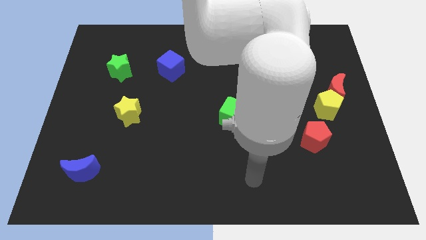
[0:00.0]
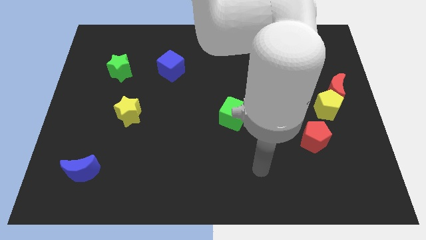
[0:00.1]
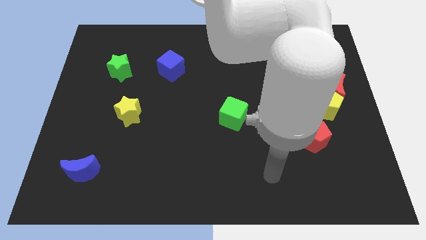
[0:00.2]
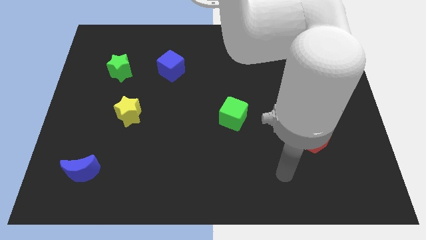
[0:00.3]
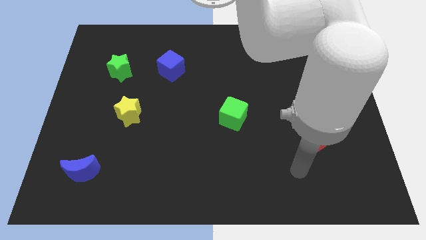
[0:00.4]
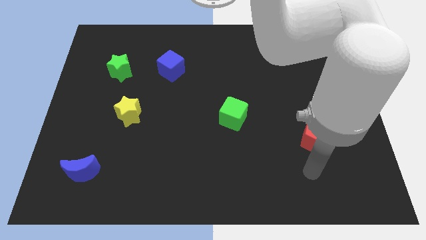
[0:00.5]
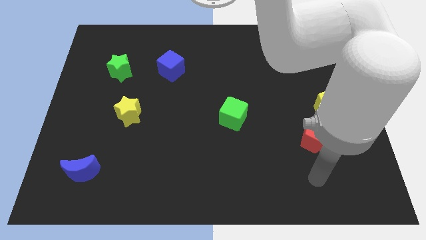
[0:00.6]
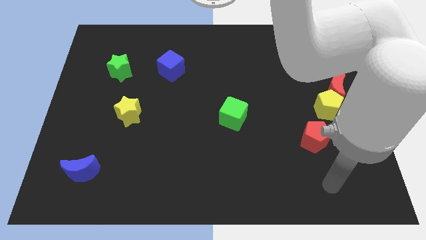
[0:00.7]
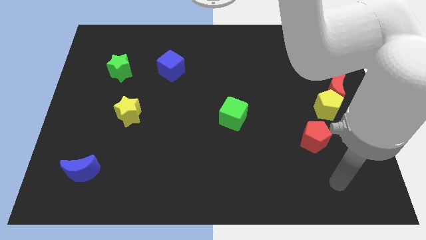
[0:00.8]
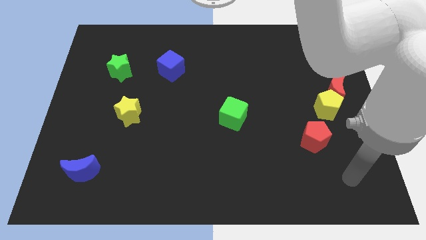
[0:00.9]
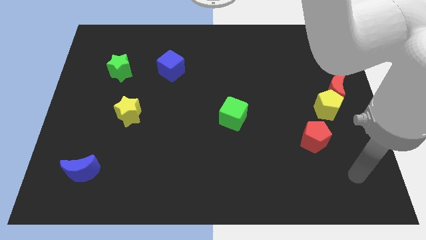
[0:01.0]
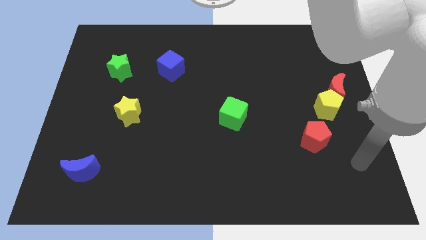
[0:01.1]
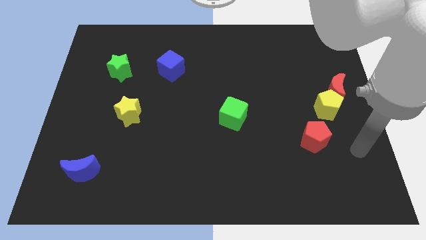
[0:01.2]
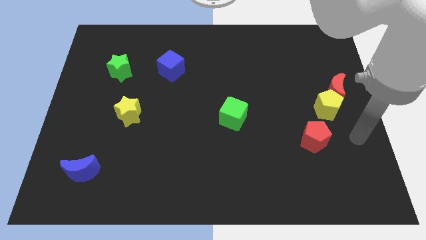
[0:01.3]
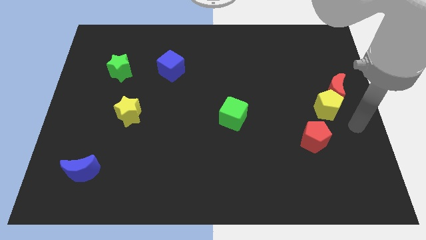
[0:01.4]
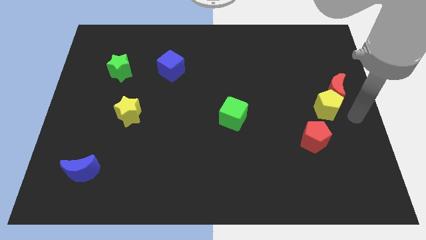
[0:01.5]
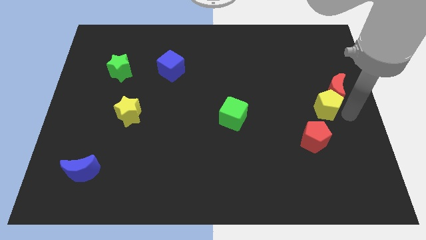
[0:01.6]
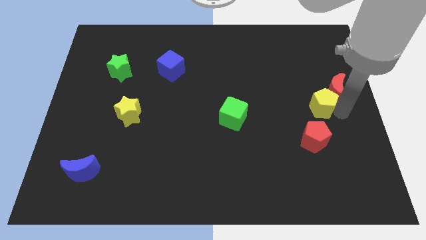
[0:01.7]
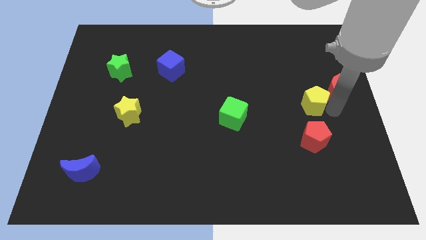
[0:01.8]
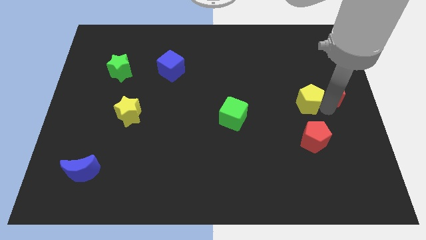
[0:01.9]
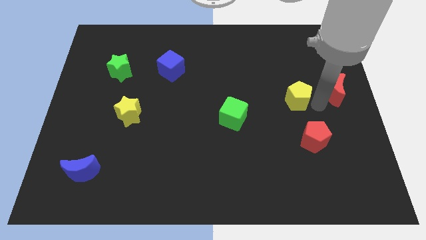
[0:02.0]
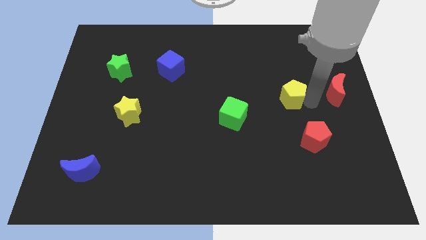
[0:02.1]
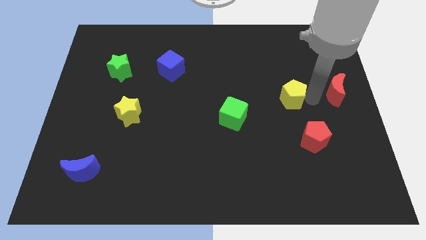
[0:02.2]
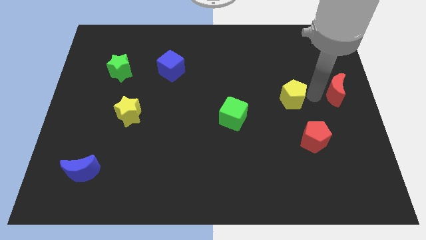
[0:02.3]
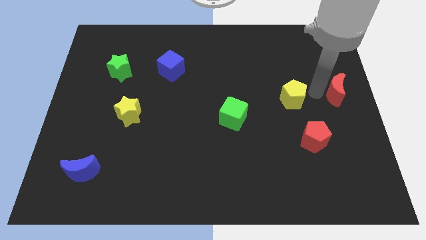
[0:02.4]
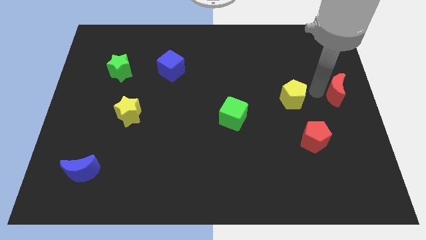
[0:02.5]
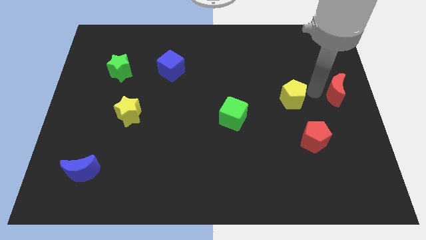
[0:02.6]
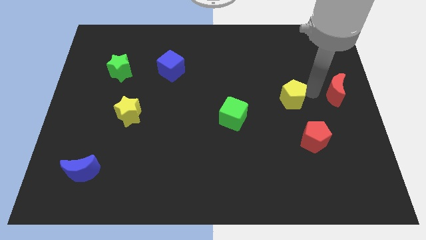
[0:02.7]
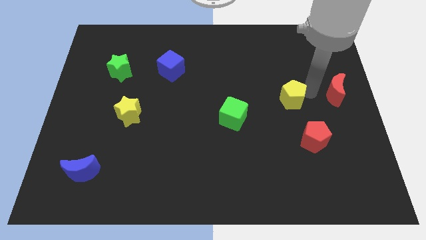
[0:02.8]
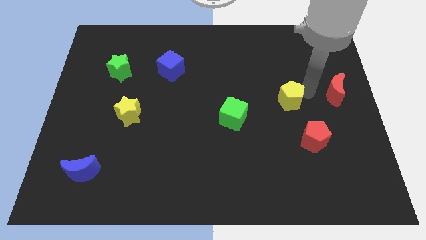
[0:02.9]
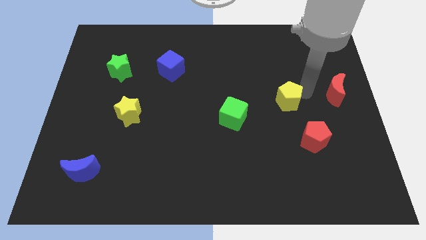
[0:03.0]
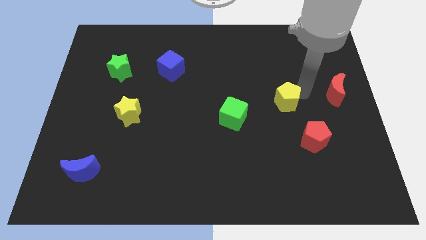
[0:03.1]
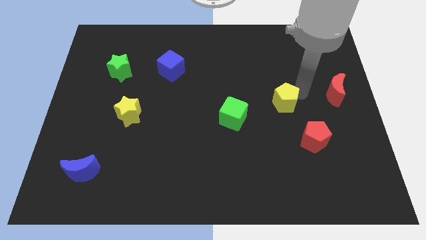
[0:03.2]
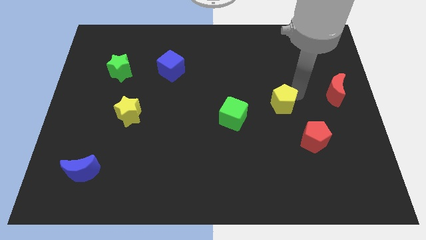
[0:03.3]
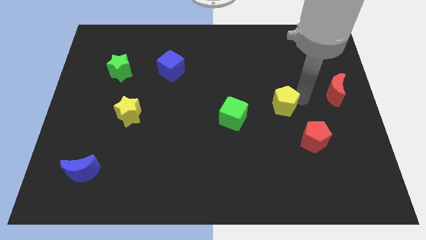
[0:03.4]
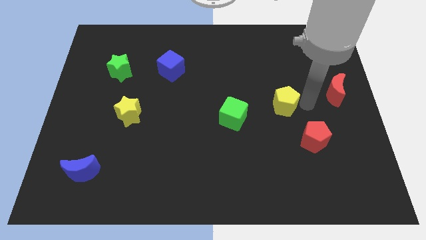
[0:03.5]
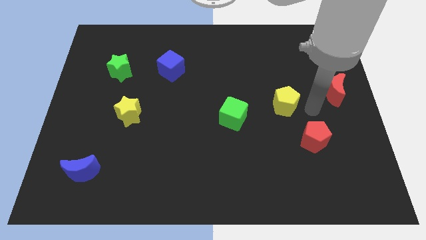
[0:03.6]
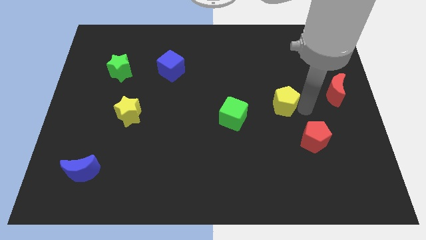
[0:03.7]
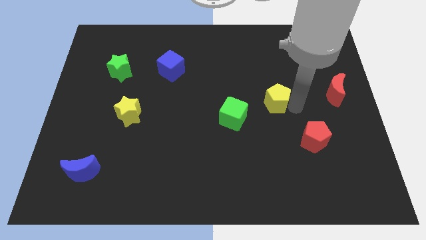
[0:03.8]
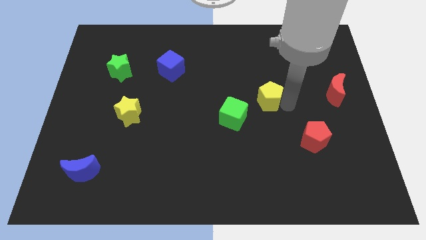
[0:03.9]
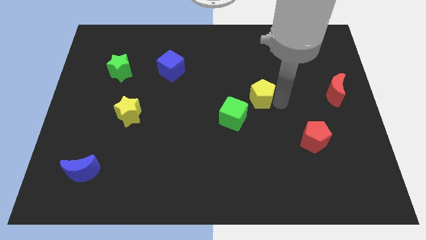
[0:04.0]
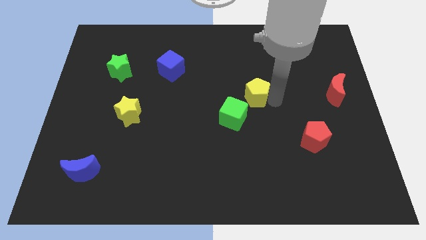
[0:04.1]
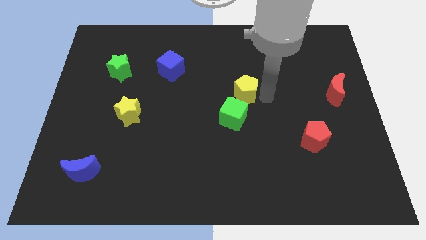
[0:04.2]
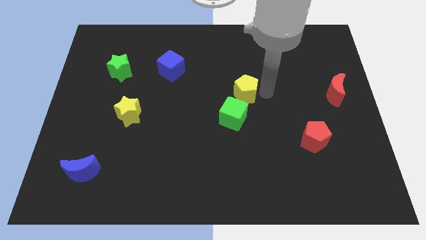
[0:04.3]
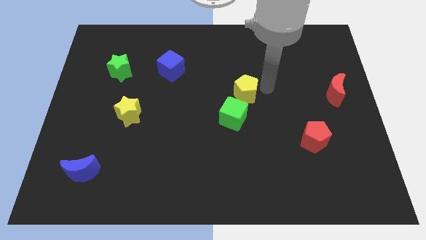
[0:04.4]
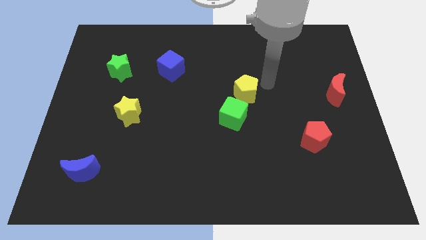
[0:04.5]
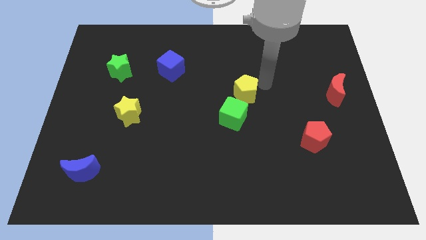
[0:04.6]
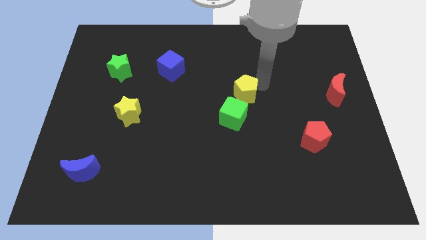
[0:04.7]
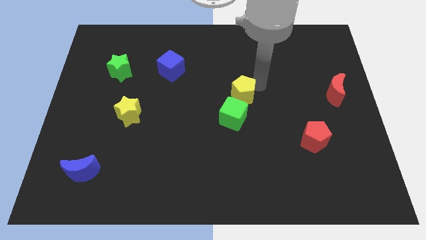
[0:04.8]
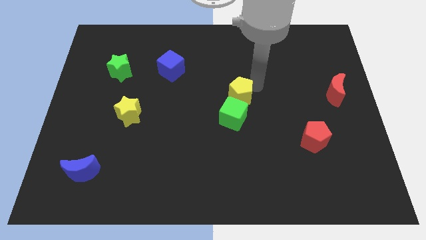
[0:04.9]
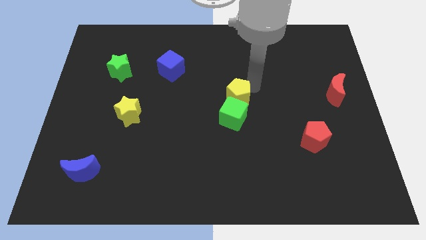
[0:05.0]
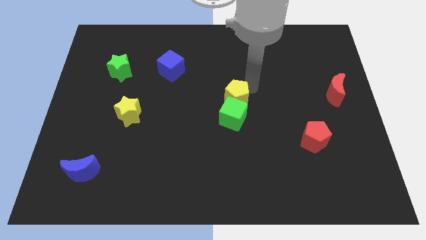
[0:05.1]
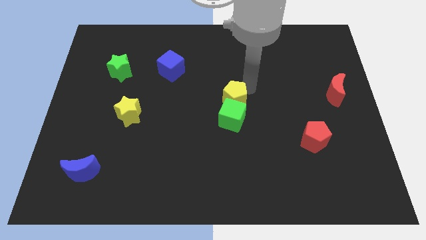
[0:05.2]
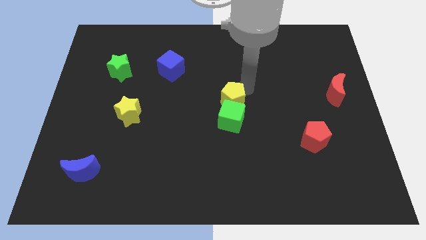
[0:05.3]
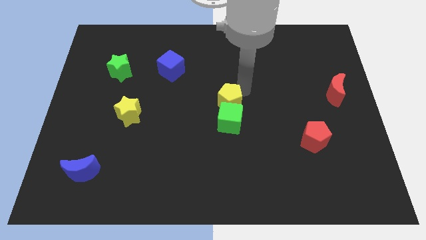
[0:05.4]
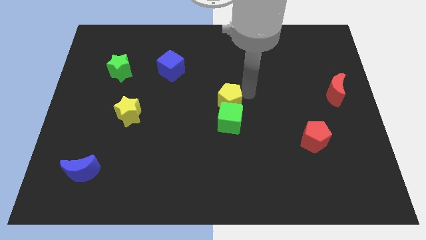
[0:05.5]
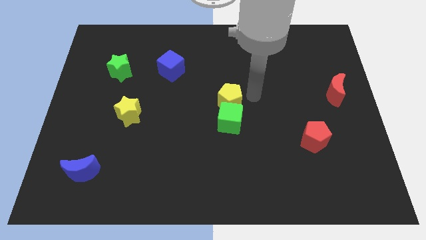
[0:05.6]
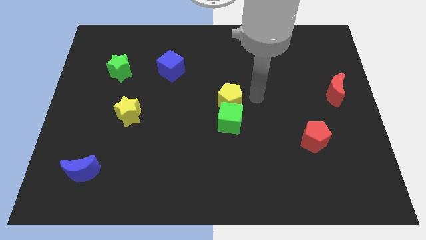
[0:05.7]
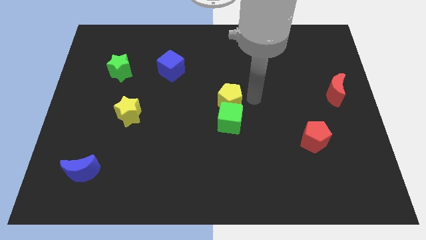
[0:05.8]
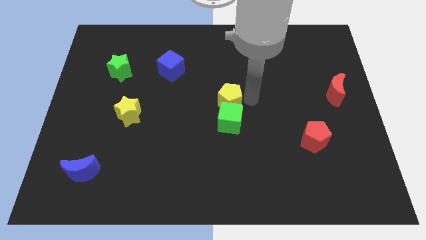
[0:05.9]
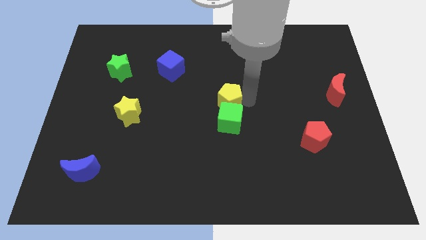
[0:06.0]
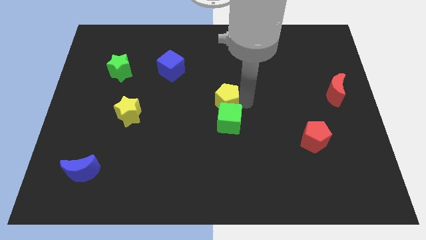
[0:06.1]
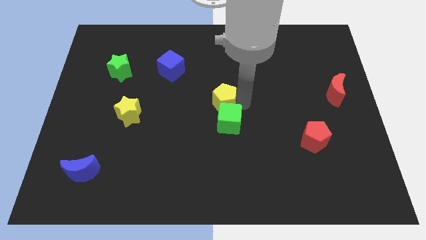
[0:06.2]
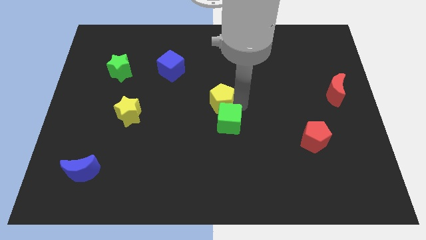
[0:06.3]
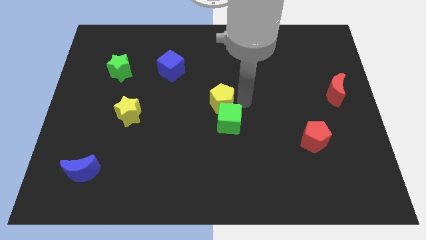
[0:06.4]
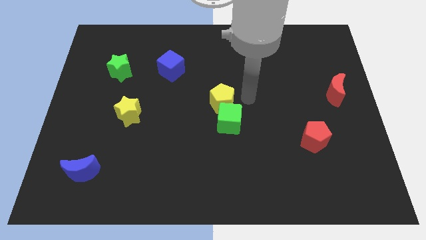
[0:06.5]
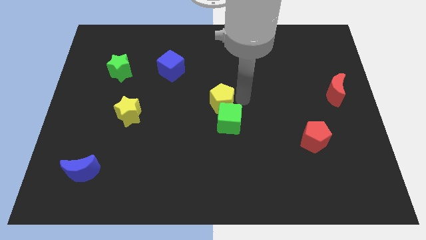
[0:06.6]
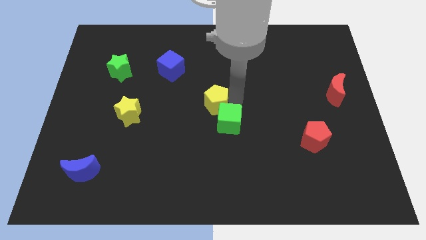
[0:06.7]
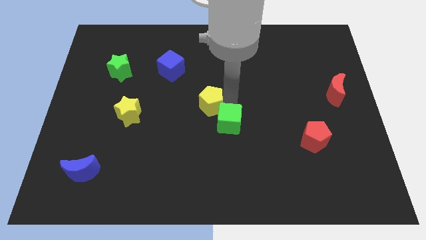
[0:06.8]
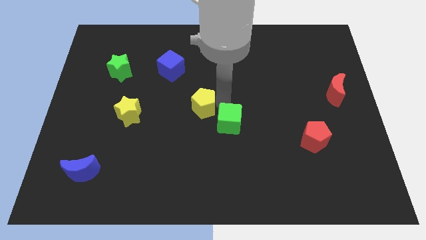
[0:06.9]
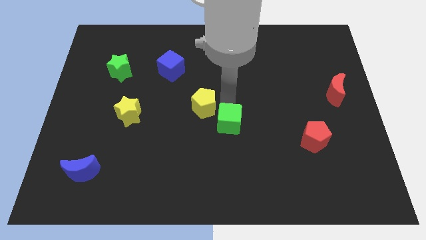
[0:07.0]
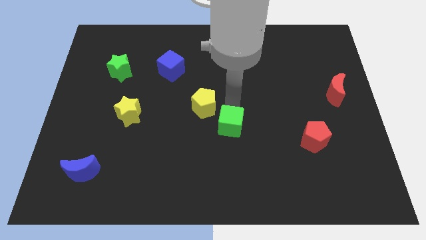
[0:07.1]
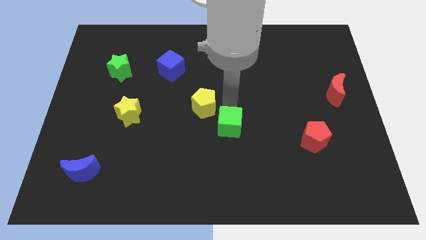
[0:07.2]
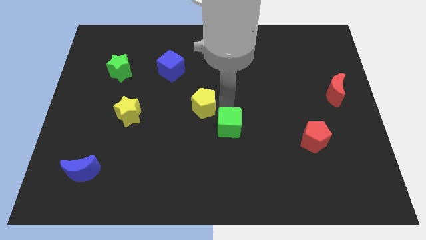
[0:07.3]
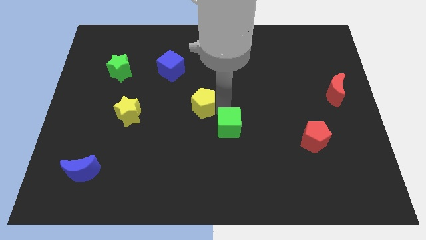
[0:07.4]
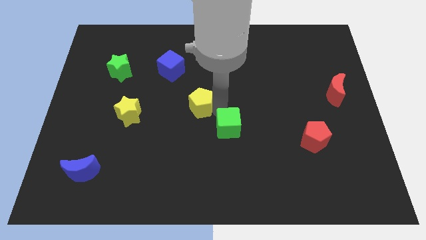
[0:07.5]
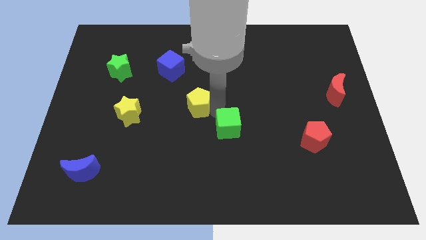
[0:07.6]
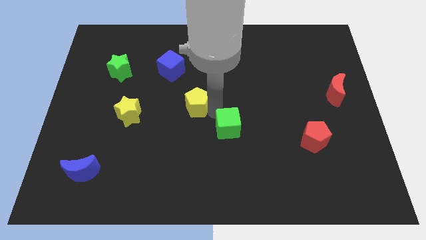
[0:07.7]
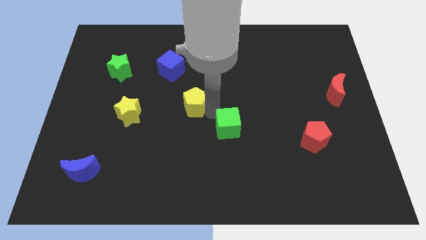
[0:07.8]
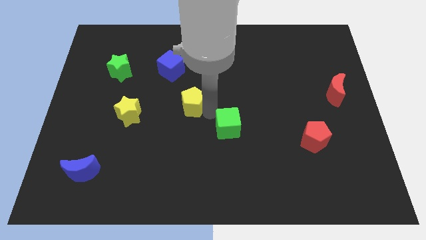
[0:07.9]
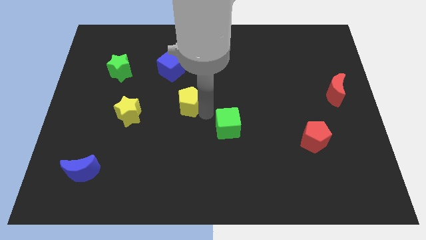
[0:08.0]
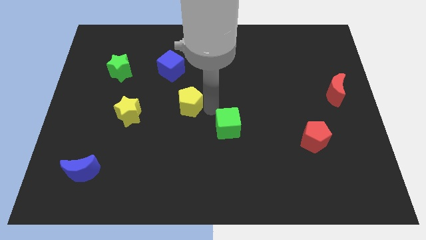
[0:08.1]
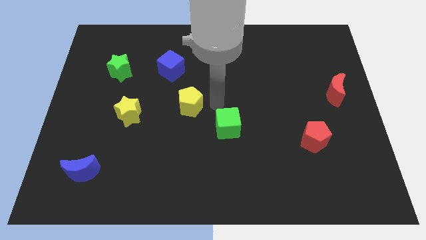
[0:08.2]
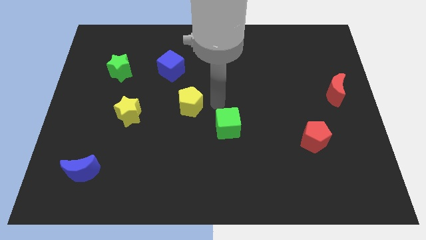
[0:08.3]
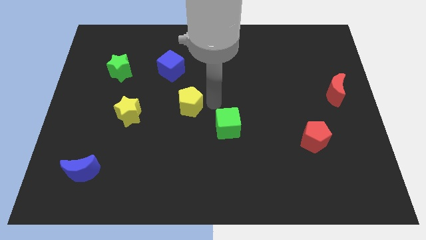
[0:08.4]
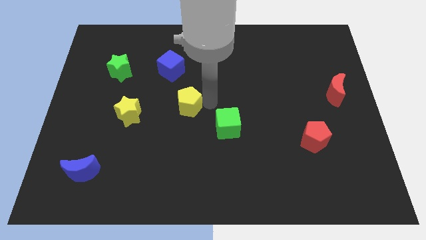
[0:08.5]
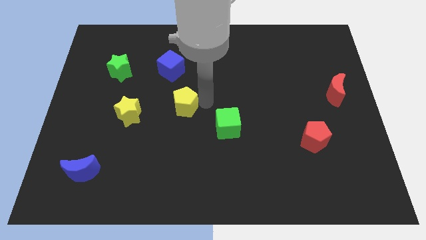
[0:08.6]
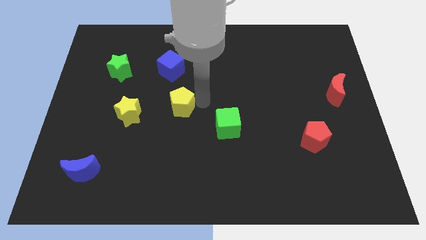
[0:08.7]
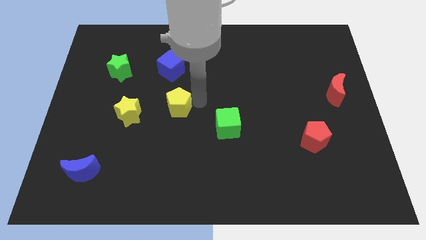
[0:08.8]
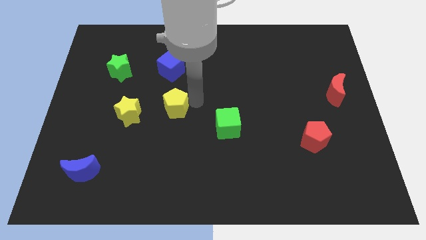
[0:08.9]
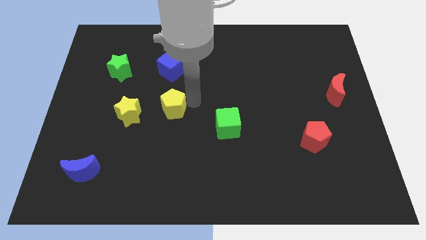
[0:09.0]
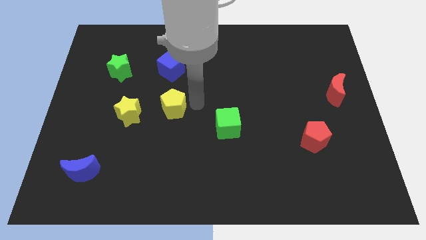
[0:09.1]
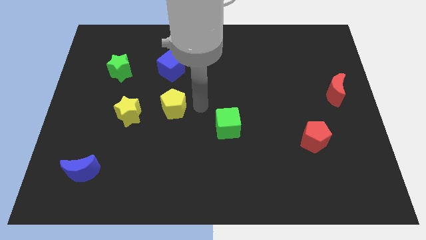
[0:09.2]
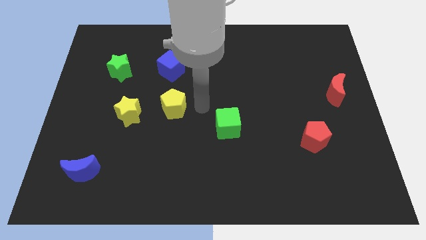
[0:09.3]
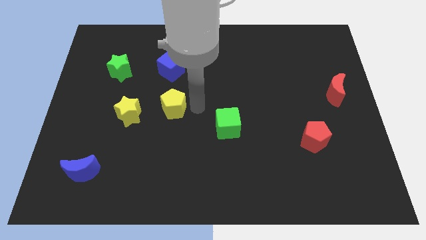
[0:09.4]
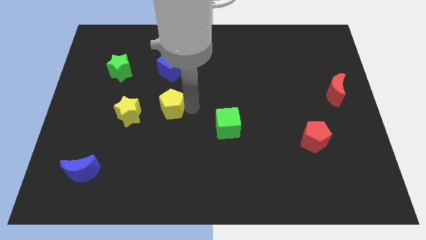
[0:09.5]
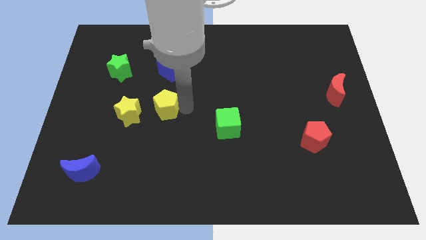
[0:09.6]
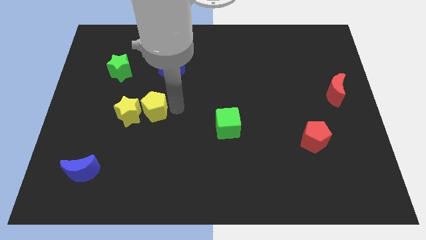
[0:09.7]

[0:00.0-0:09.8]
push the yellow pentagon towards the yellow star
